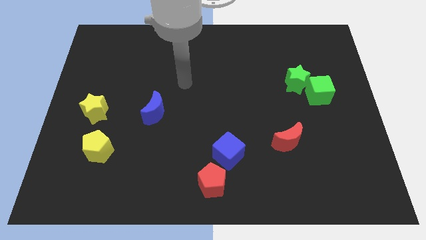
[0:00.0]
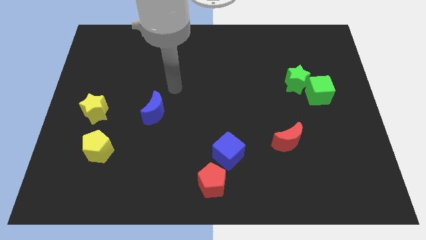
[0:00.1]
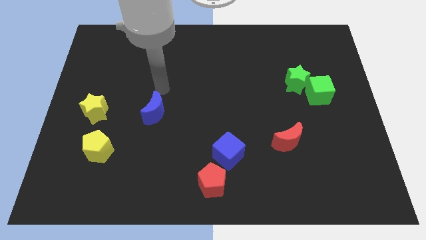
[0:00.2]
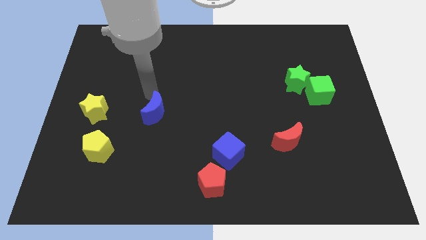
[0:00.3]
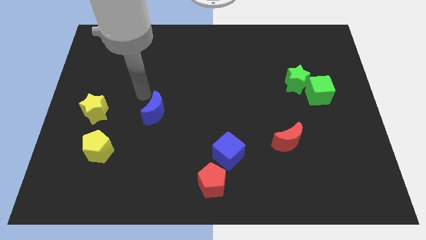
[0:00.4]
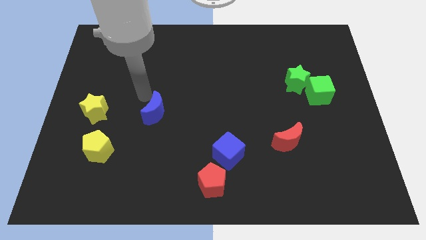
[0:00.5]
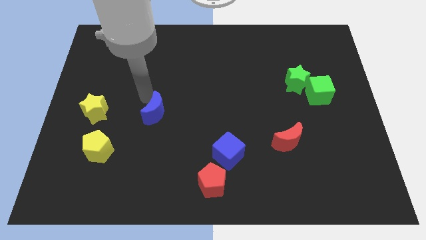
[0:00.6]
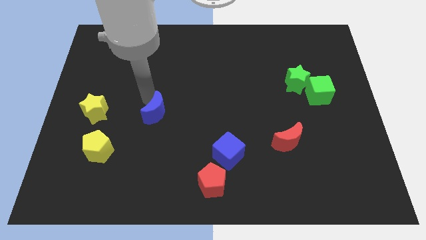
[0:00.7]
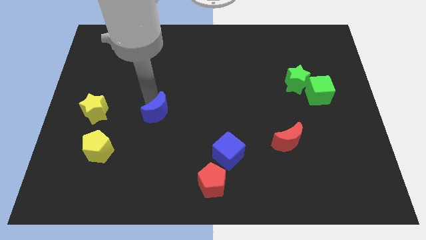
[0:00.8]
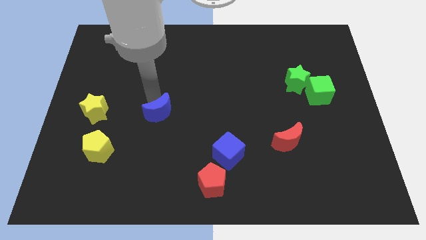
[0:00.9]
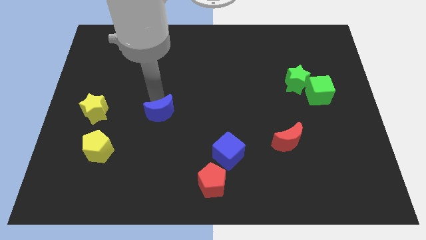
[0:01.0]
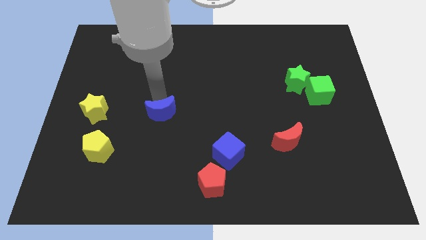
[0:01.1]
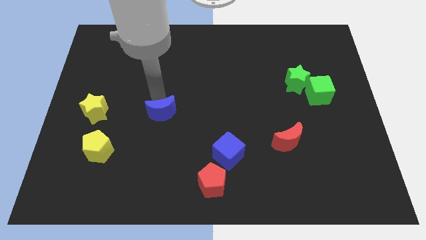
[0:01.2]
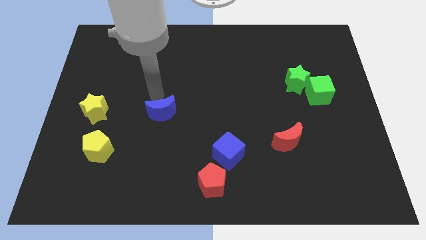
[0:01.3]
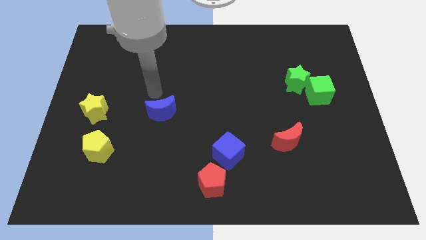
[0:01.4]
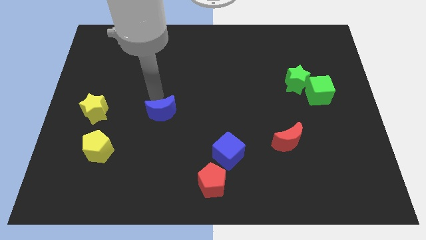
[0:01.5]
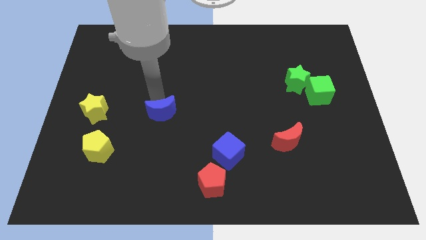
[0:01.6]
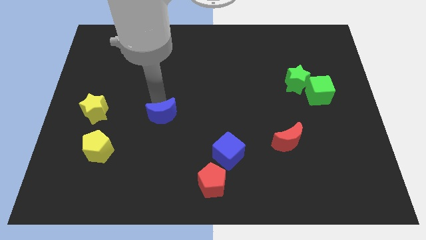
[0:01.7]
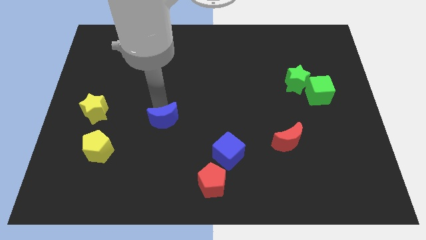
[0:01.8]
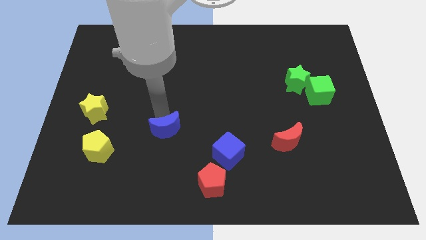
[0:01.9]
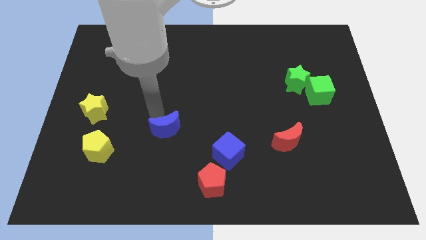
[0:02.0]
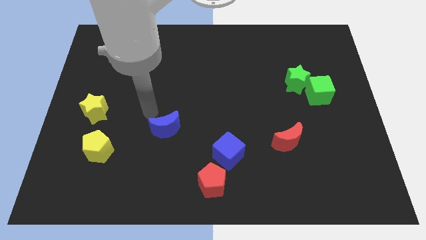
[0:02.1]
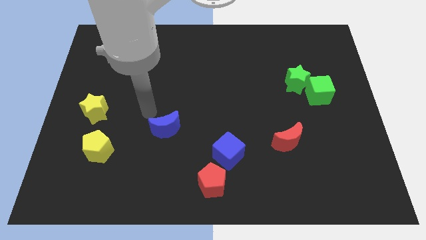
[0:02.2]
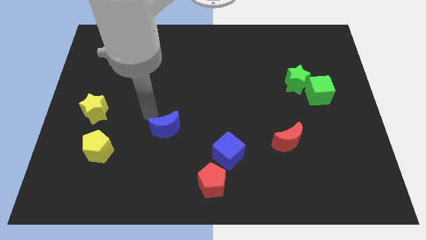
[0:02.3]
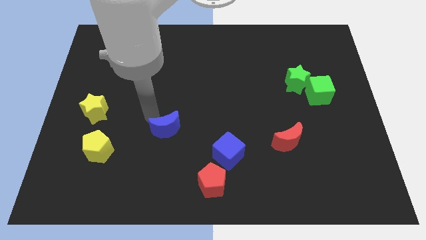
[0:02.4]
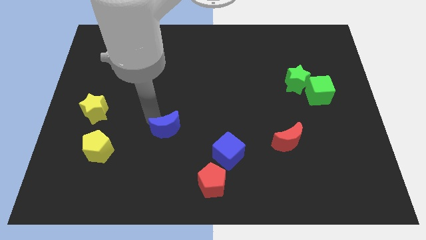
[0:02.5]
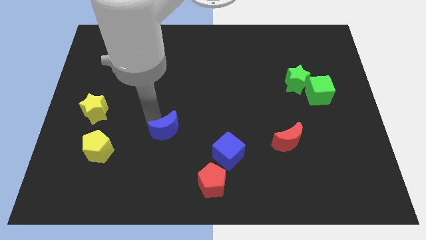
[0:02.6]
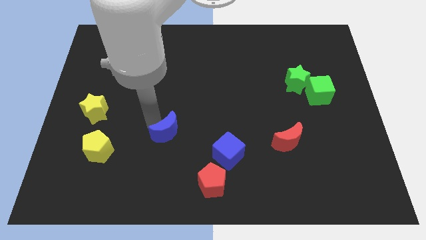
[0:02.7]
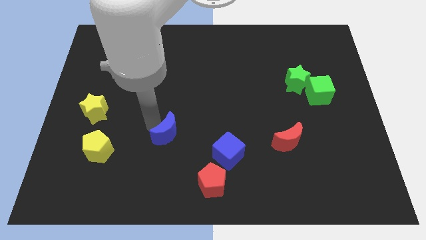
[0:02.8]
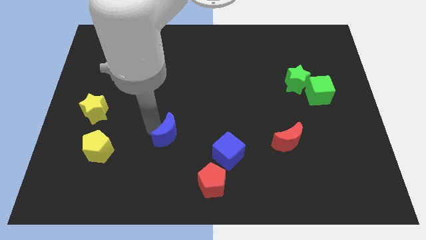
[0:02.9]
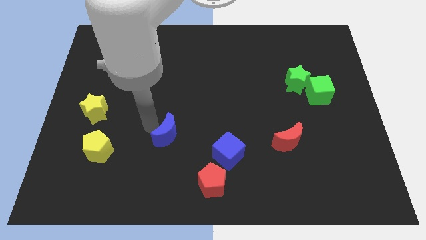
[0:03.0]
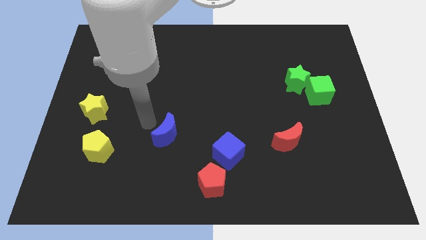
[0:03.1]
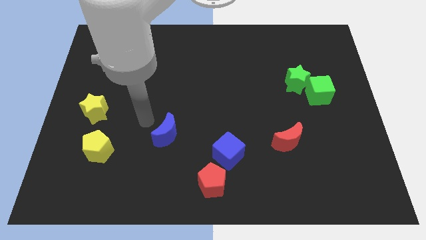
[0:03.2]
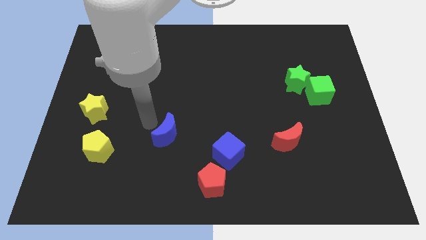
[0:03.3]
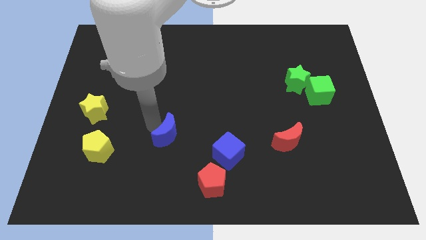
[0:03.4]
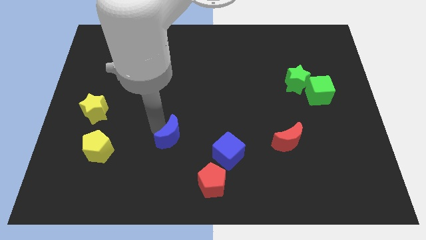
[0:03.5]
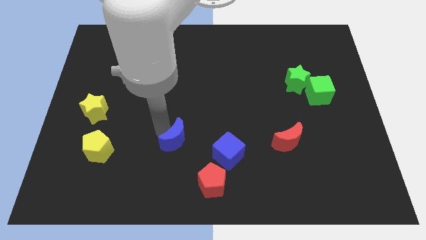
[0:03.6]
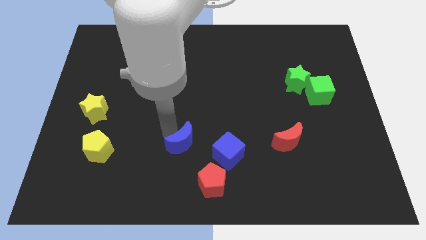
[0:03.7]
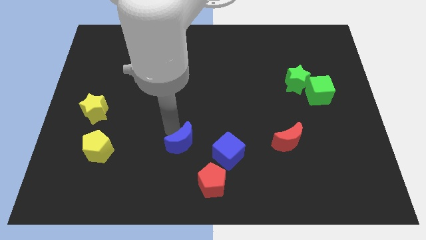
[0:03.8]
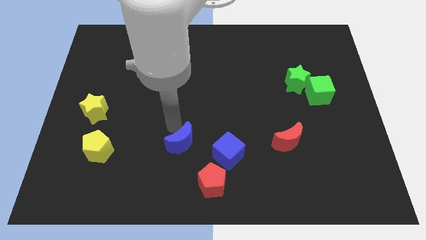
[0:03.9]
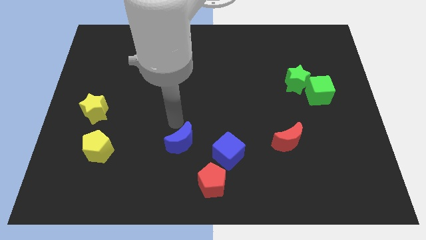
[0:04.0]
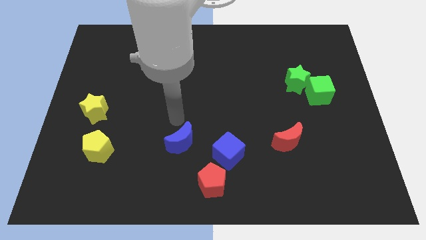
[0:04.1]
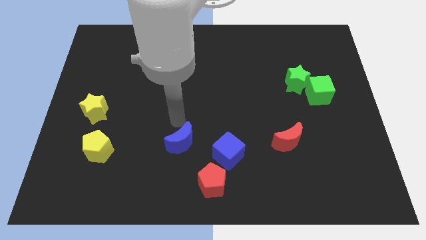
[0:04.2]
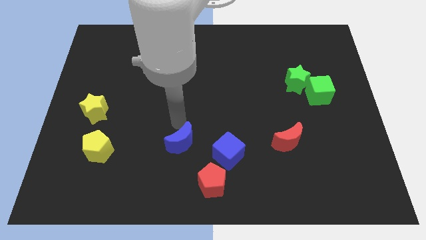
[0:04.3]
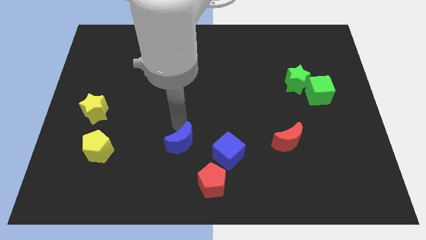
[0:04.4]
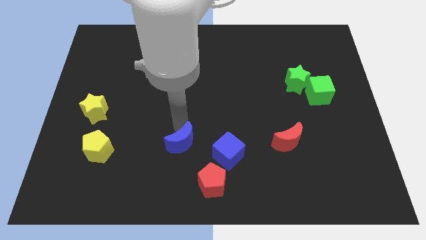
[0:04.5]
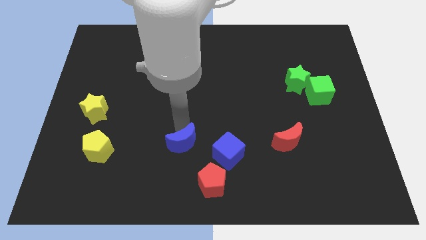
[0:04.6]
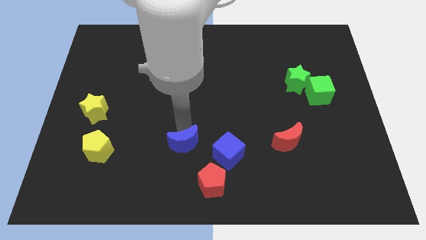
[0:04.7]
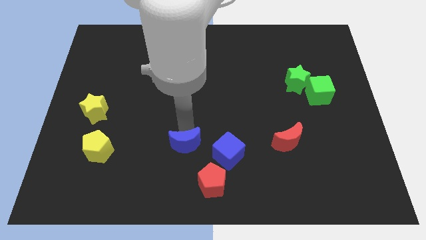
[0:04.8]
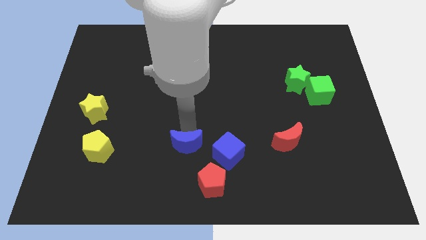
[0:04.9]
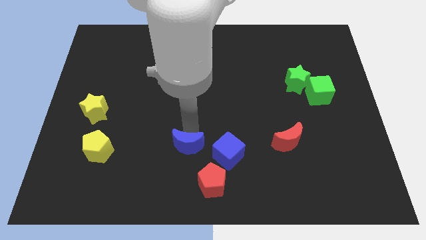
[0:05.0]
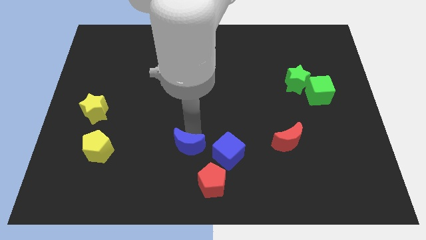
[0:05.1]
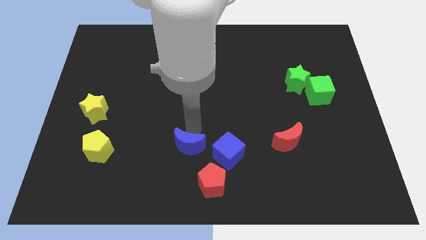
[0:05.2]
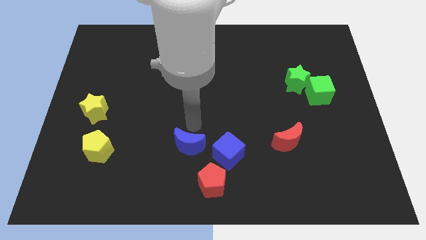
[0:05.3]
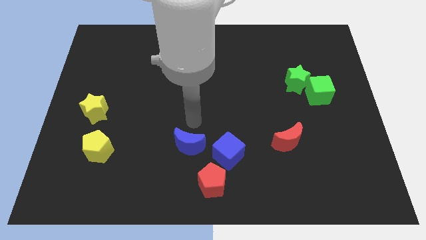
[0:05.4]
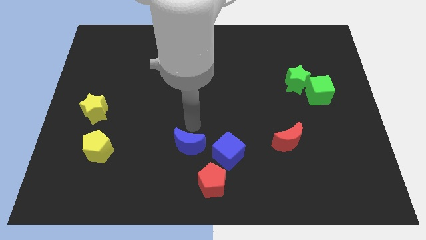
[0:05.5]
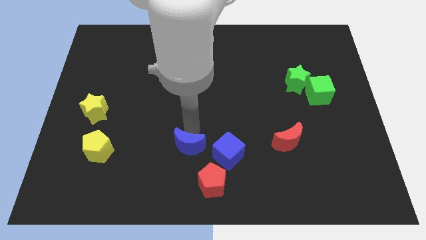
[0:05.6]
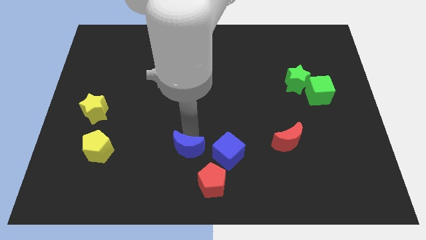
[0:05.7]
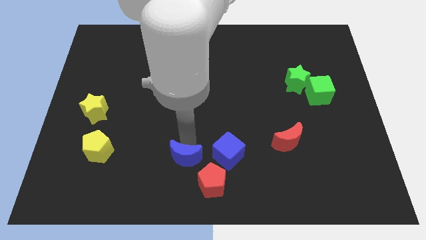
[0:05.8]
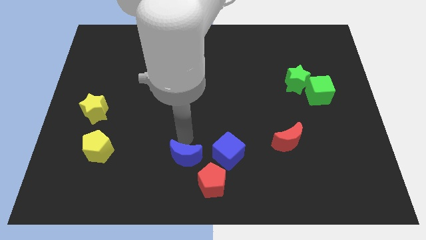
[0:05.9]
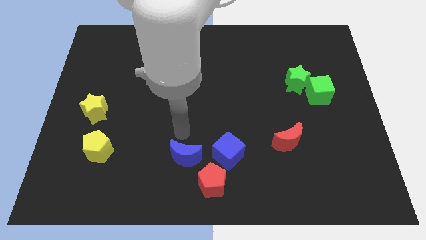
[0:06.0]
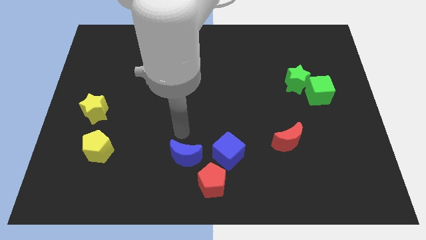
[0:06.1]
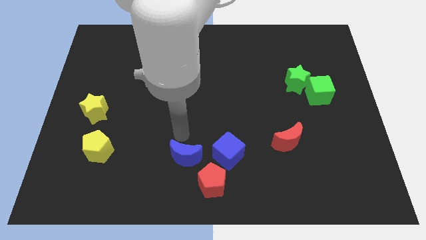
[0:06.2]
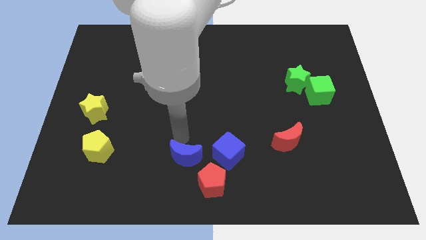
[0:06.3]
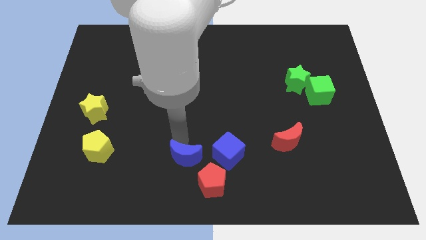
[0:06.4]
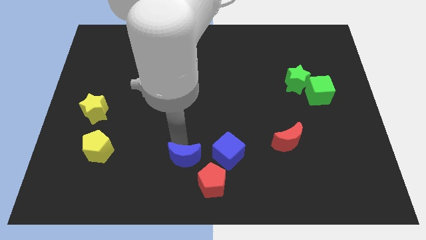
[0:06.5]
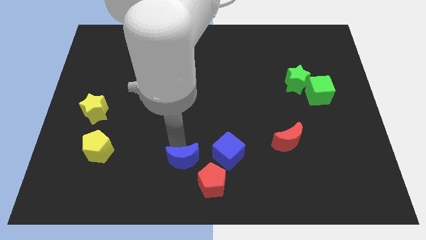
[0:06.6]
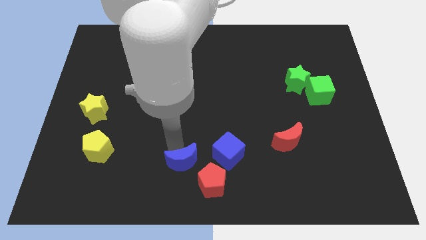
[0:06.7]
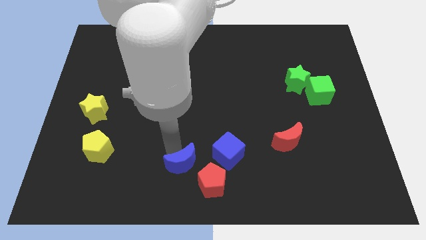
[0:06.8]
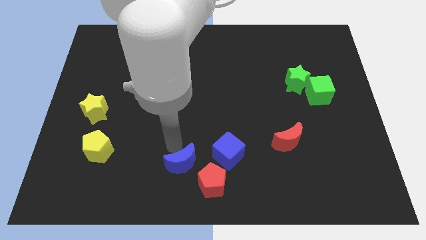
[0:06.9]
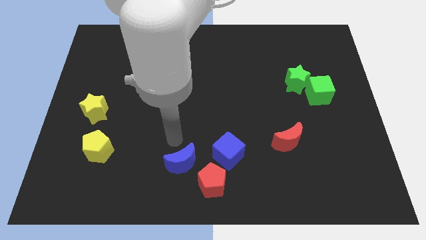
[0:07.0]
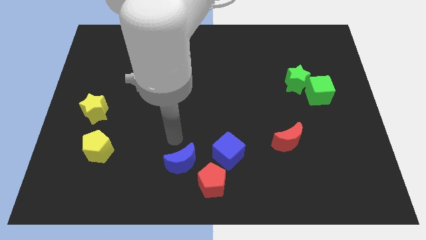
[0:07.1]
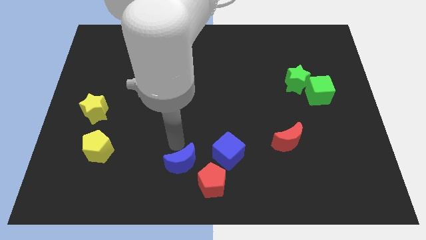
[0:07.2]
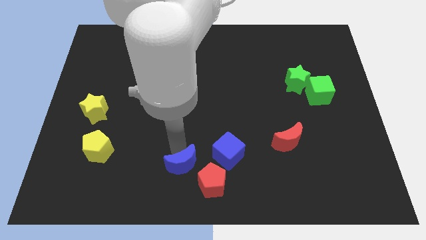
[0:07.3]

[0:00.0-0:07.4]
slide the blue moon to the bottom left of the blue cube

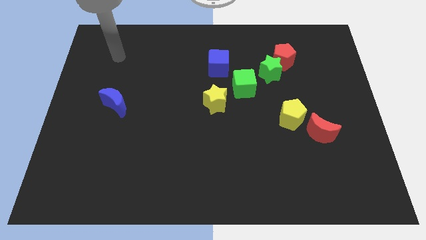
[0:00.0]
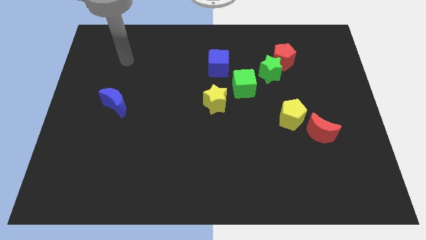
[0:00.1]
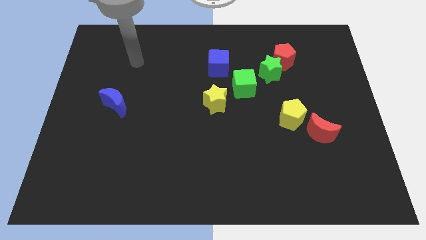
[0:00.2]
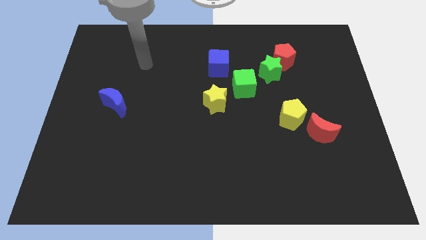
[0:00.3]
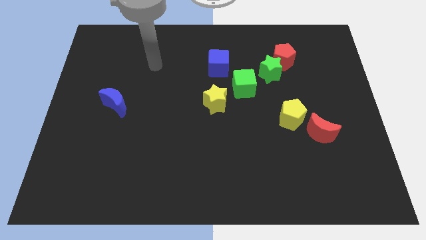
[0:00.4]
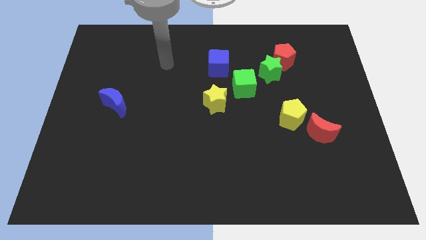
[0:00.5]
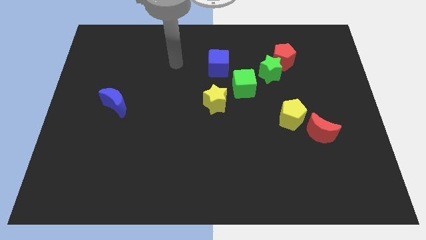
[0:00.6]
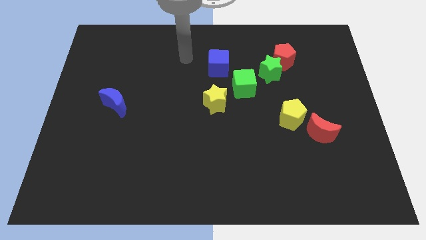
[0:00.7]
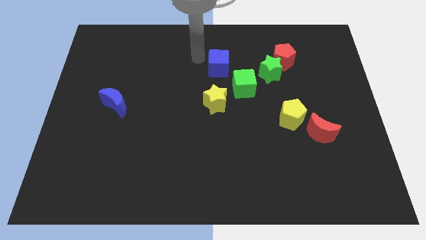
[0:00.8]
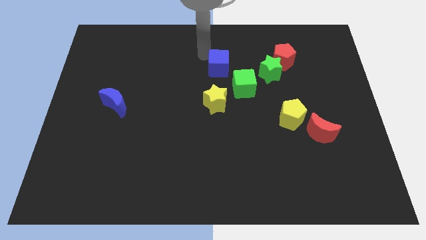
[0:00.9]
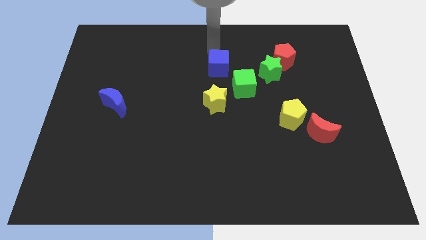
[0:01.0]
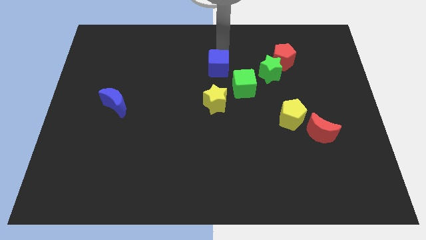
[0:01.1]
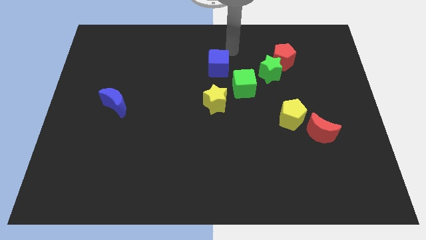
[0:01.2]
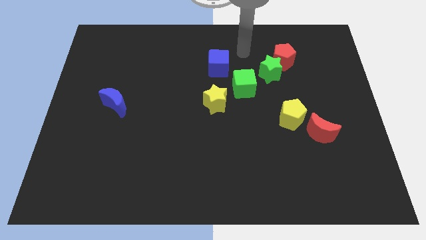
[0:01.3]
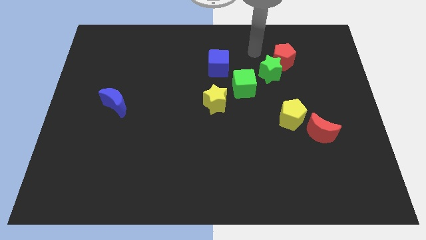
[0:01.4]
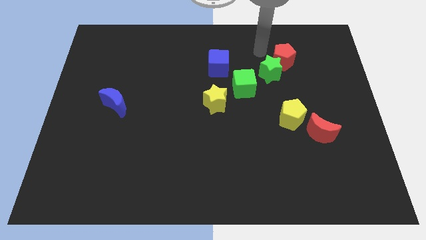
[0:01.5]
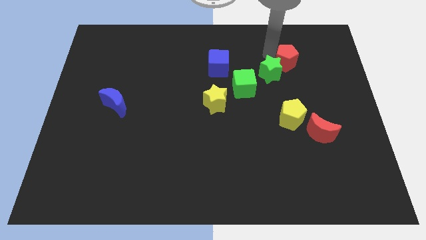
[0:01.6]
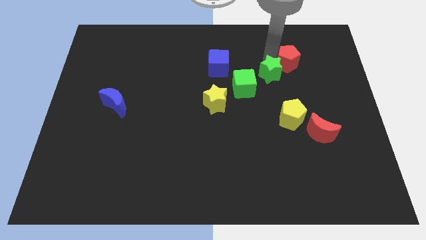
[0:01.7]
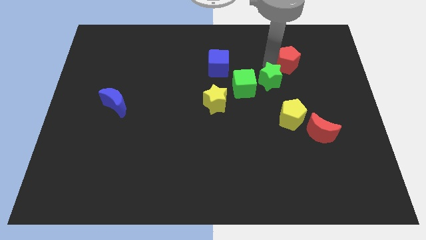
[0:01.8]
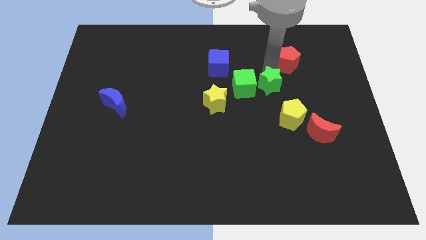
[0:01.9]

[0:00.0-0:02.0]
push the green star diagonally up and to the left of the yellow pentagon
